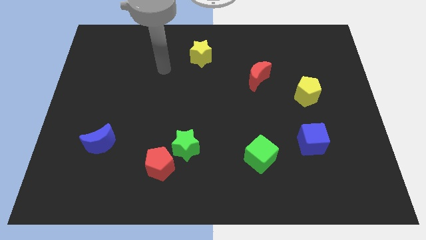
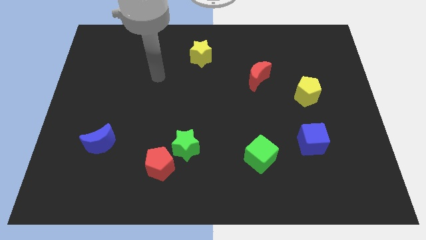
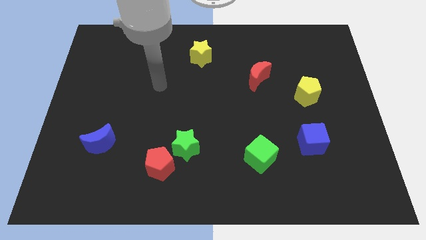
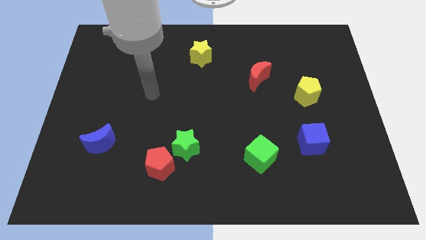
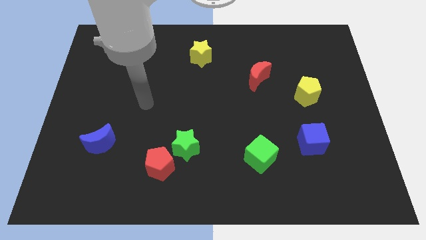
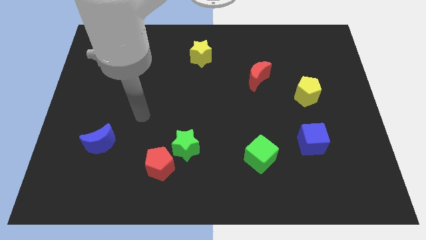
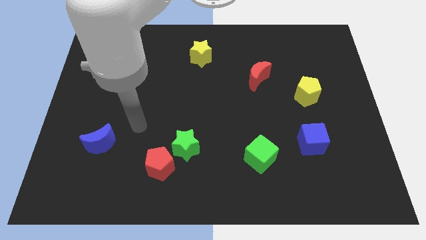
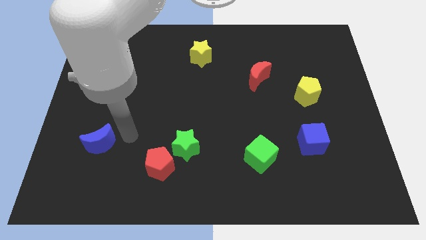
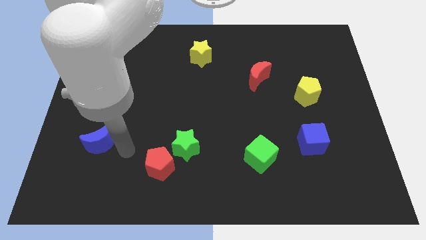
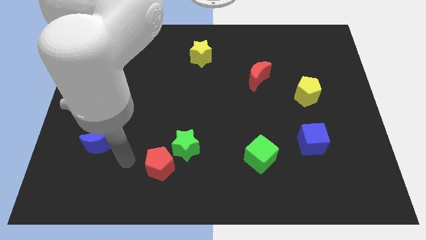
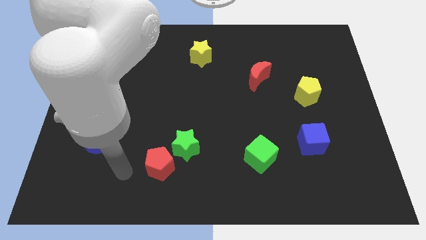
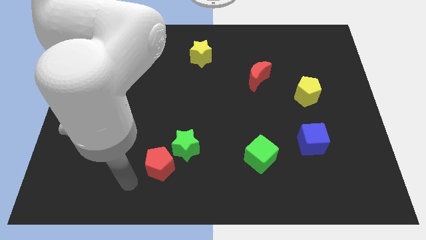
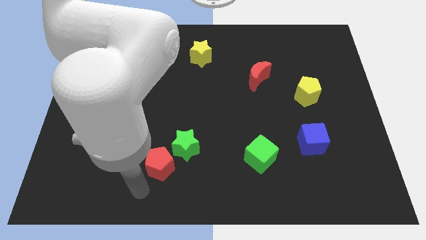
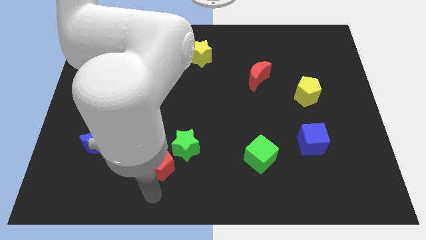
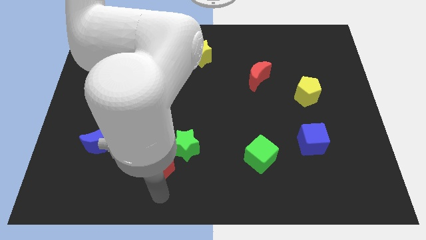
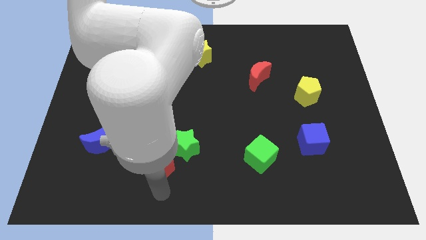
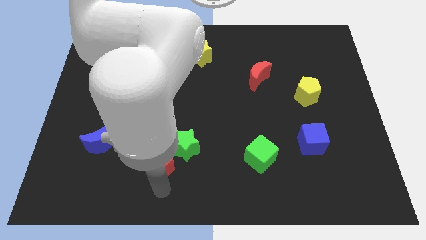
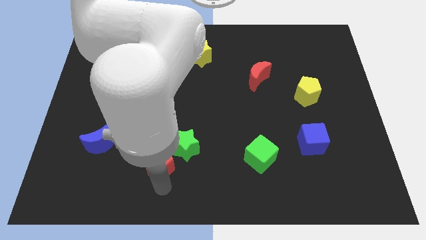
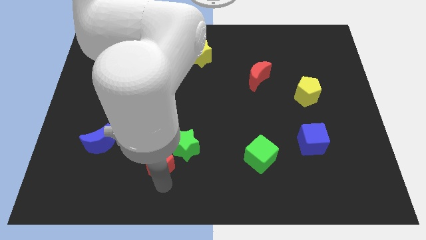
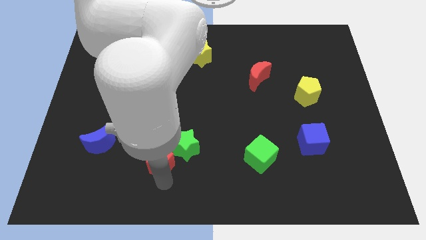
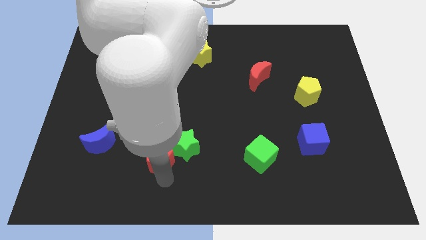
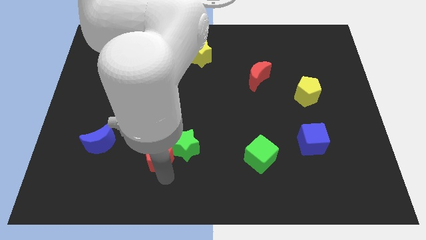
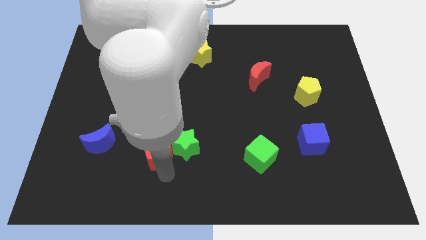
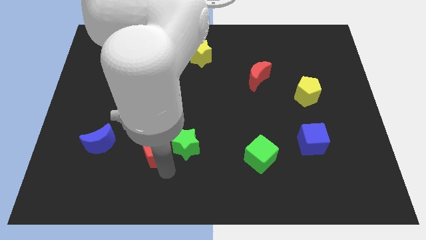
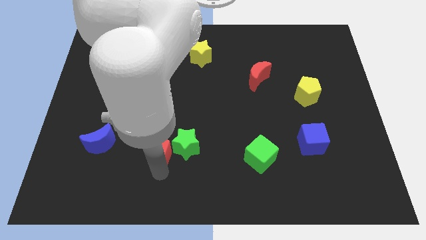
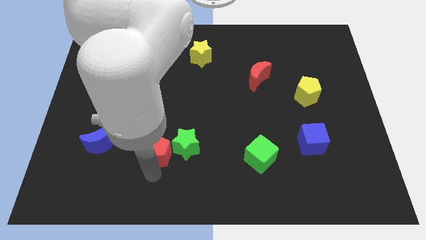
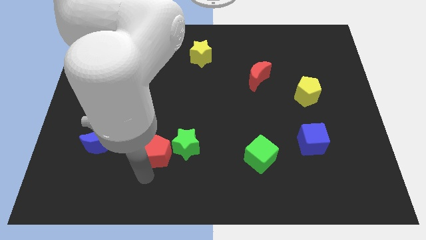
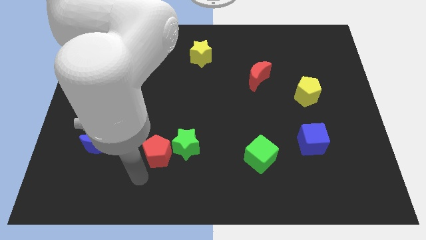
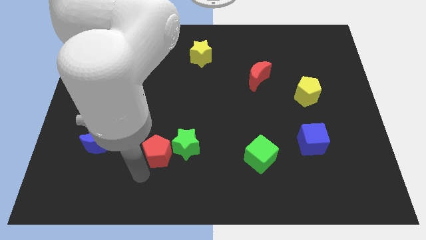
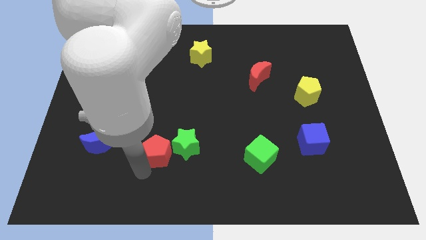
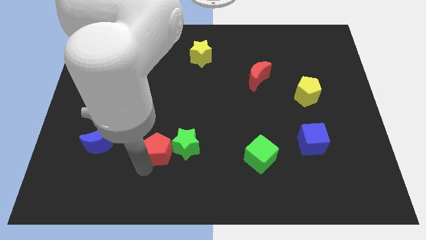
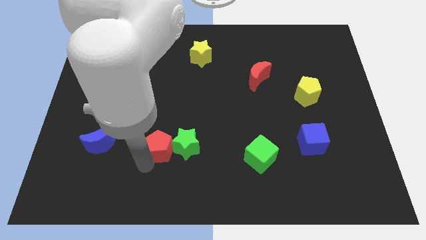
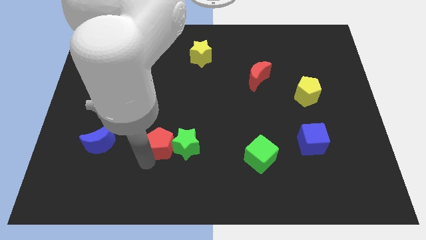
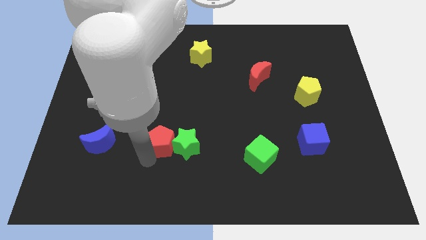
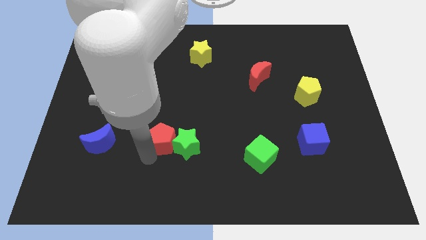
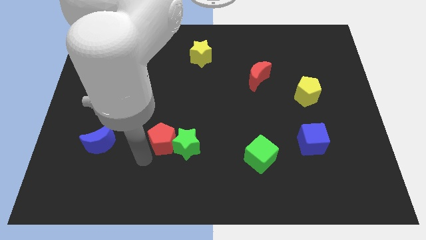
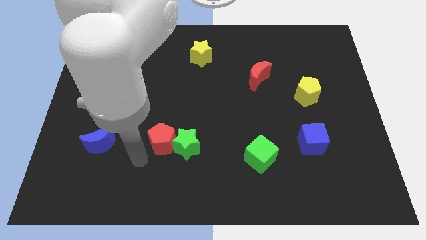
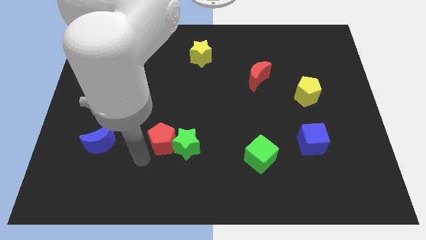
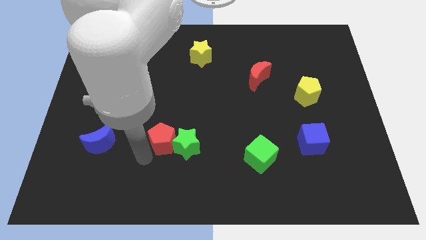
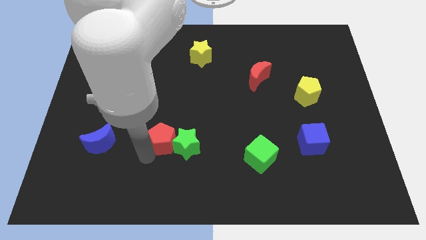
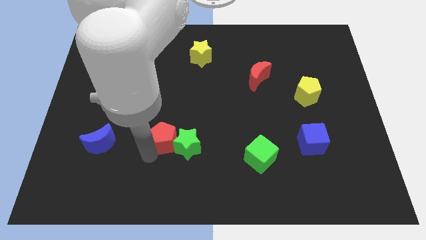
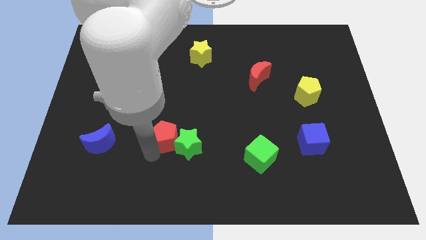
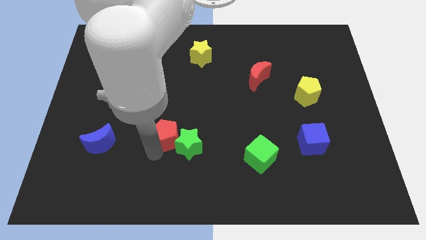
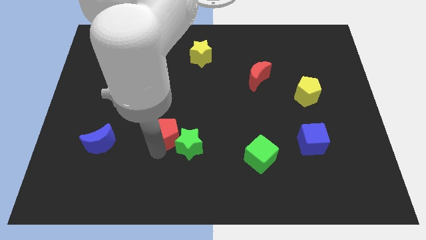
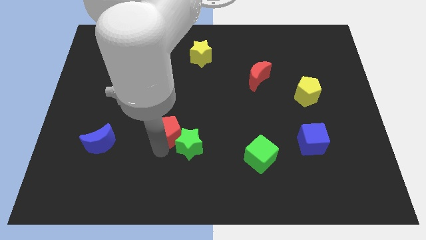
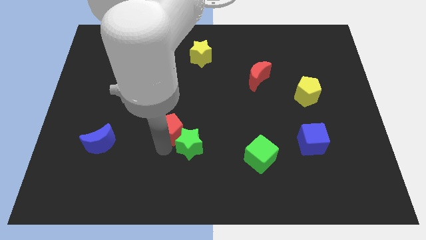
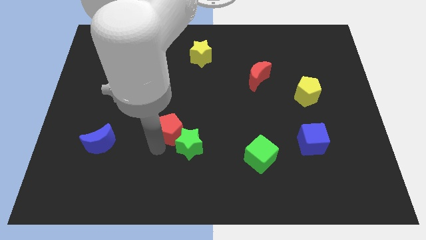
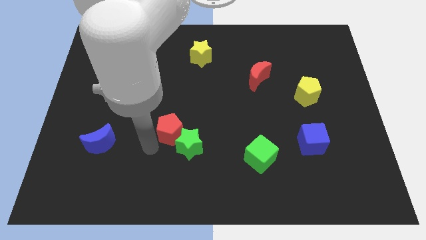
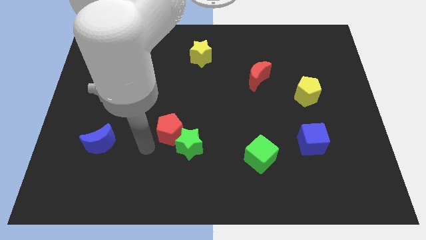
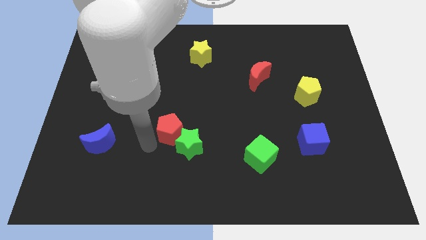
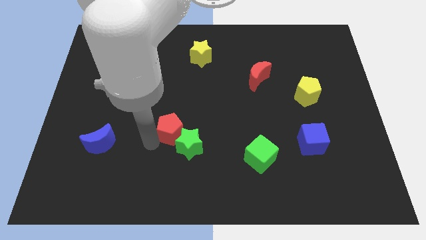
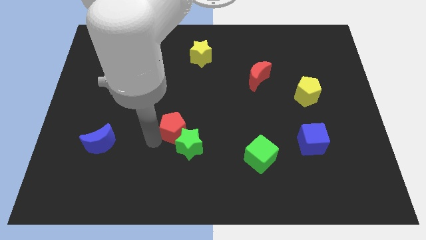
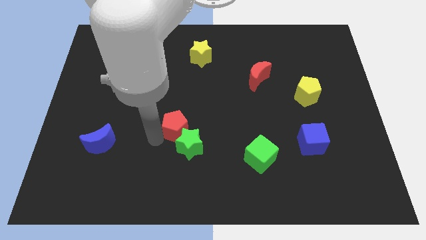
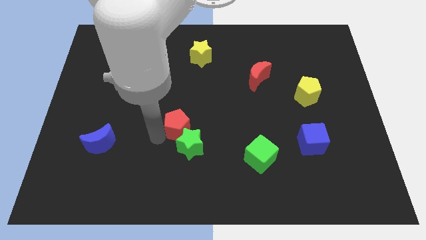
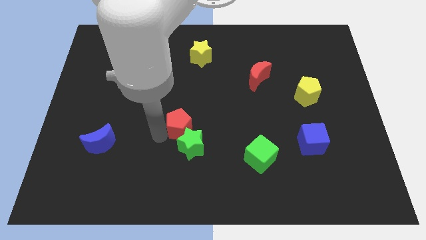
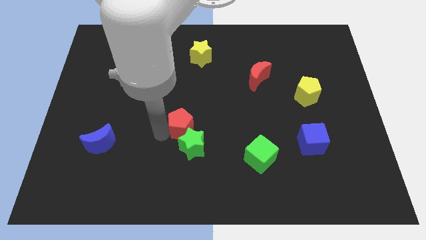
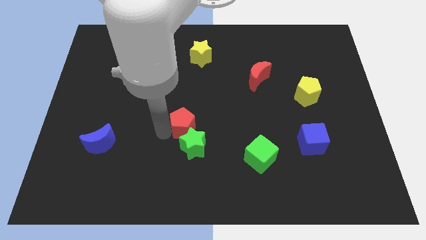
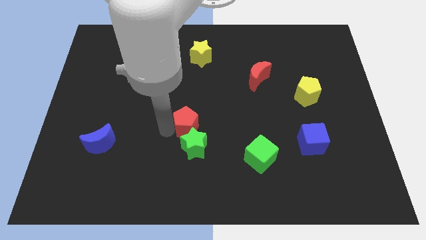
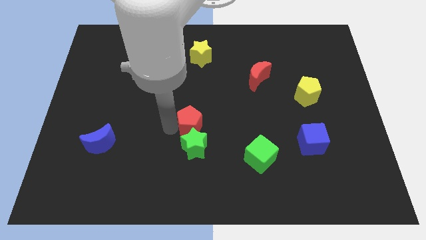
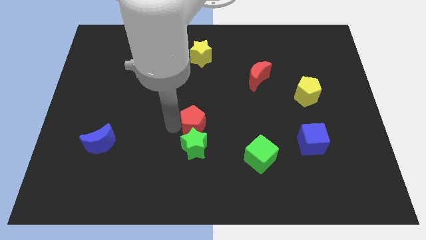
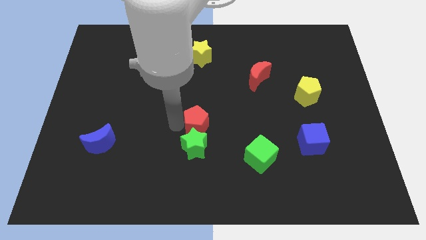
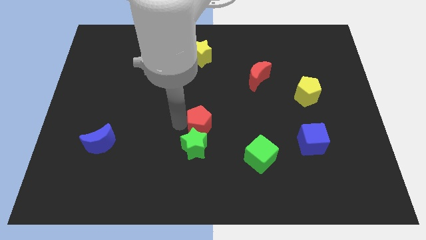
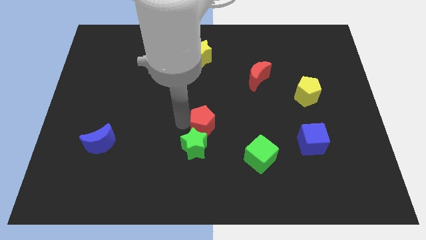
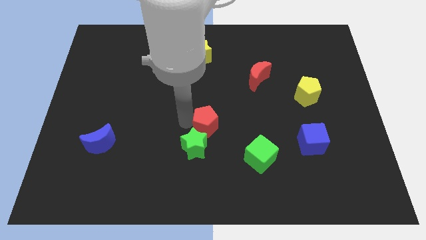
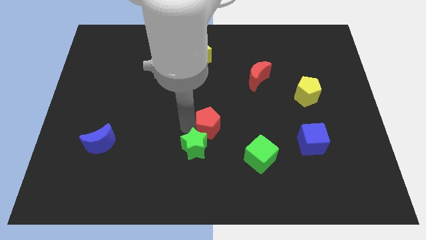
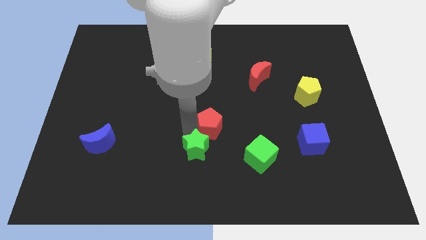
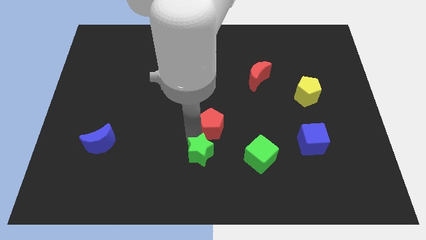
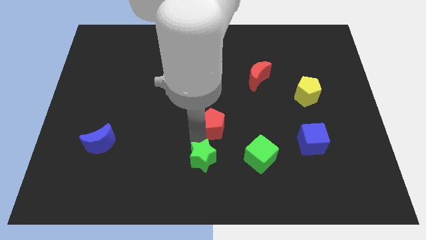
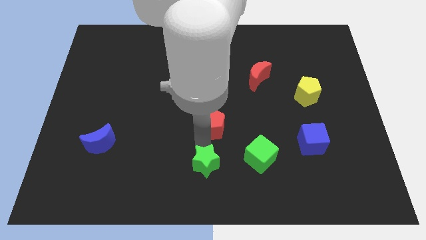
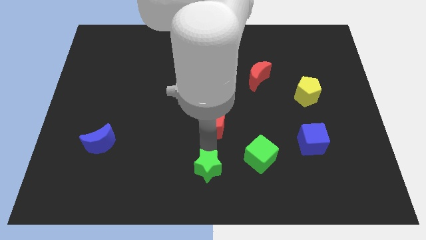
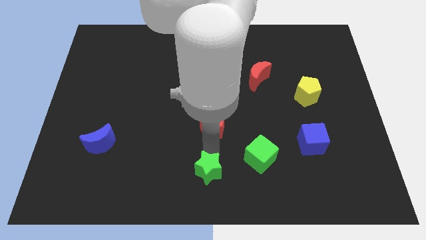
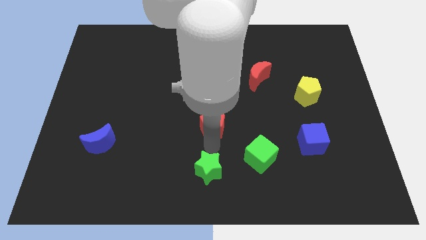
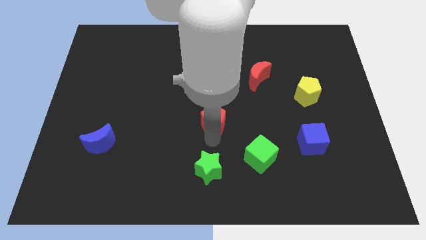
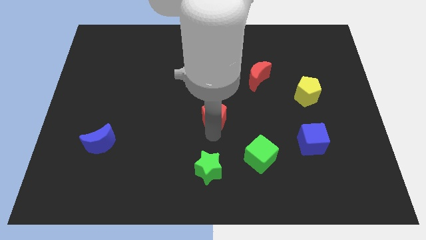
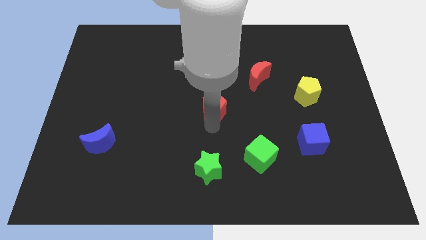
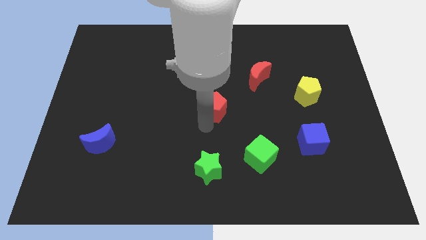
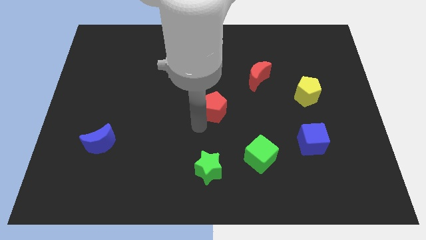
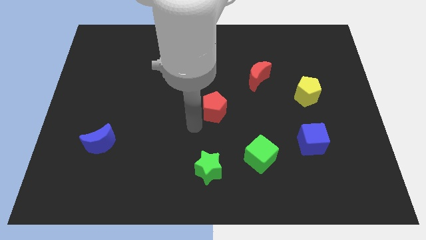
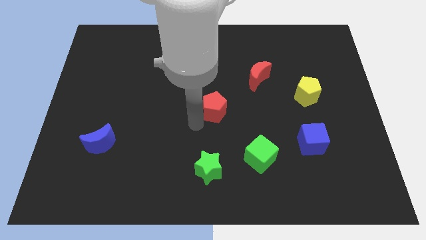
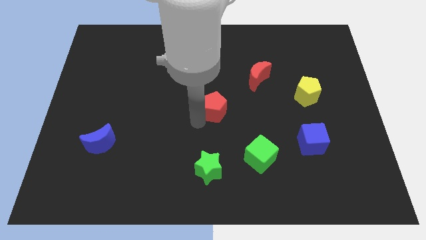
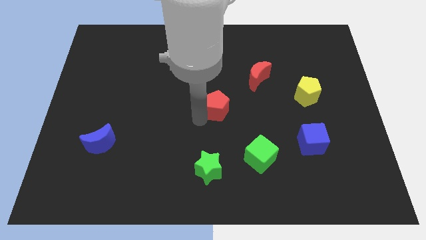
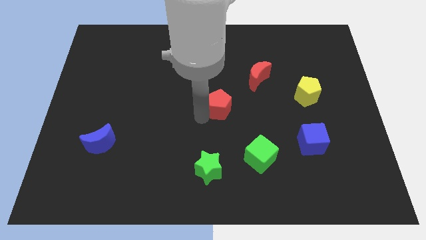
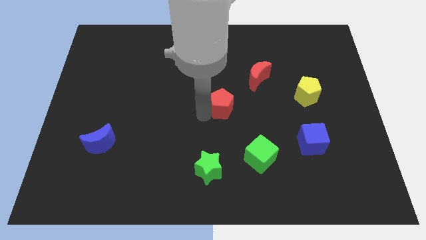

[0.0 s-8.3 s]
push the red pentagon to the bottom left side of the red moon
